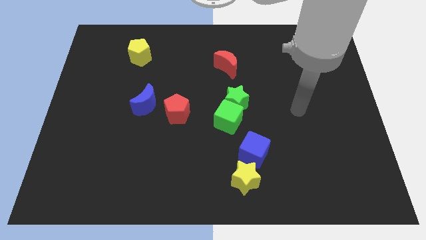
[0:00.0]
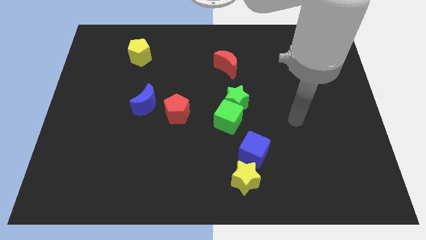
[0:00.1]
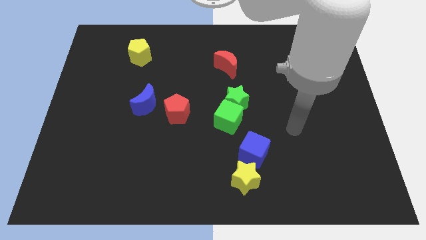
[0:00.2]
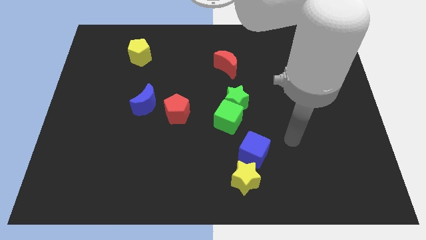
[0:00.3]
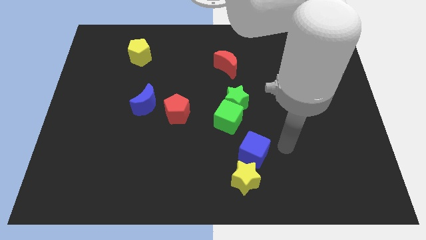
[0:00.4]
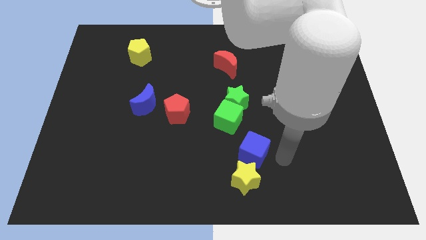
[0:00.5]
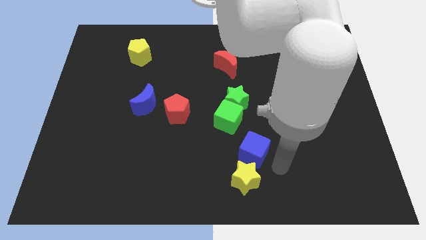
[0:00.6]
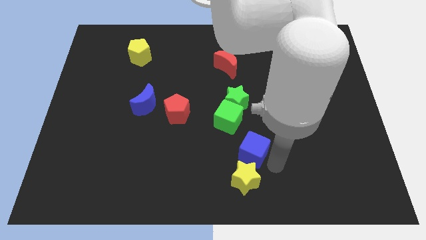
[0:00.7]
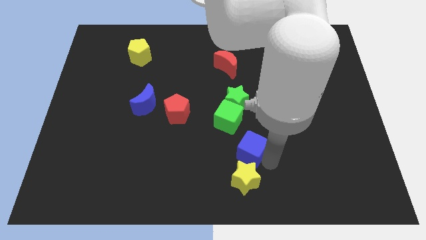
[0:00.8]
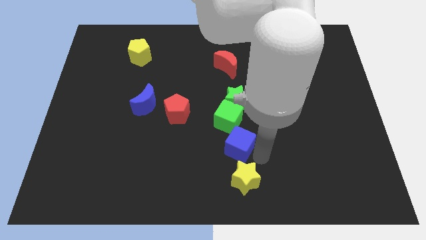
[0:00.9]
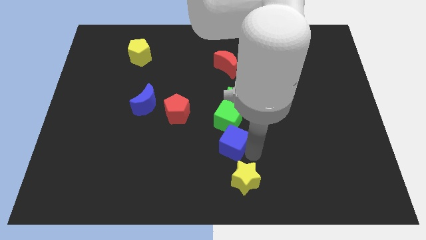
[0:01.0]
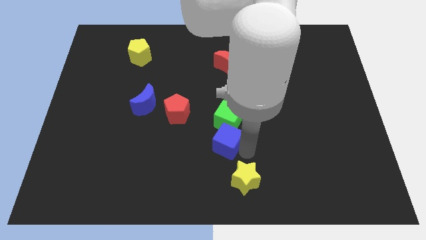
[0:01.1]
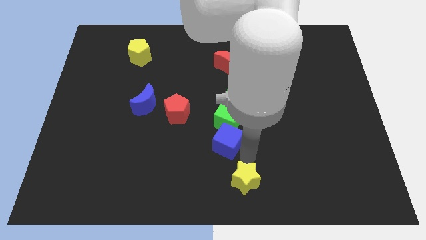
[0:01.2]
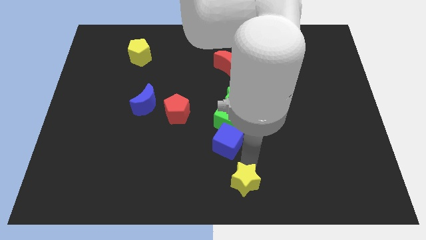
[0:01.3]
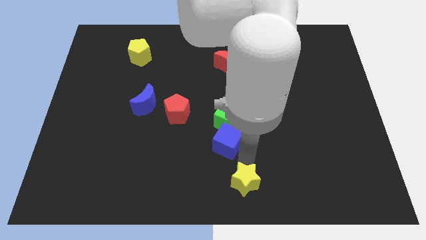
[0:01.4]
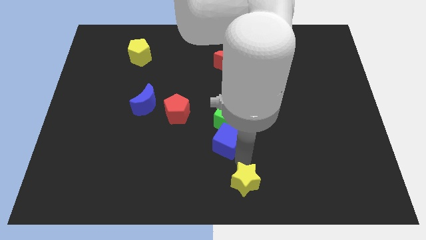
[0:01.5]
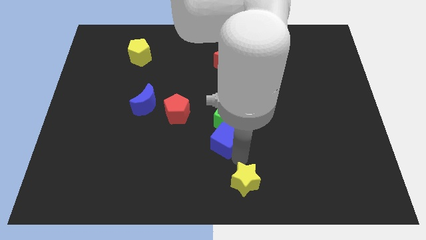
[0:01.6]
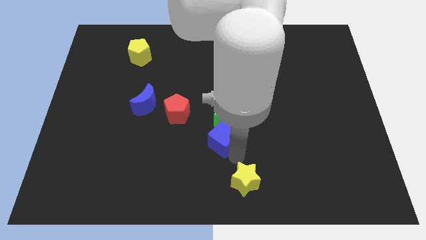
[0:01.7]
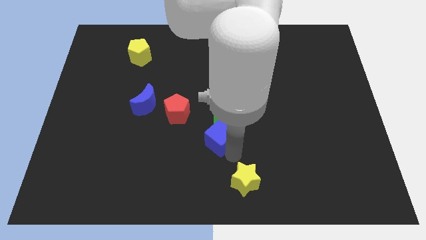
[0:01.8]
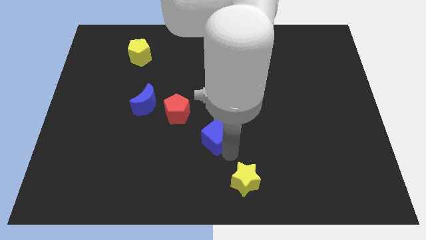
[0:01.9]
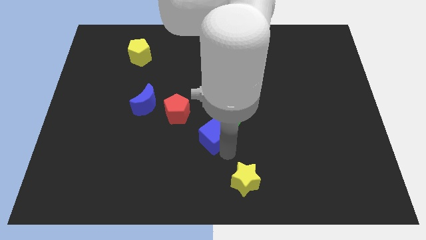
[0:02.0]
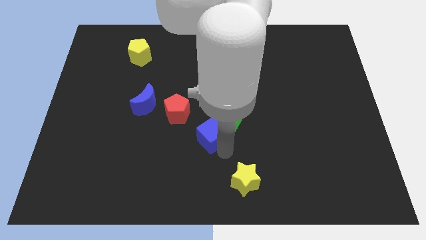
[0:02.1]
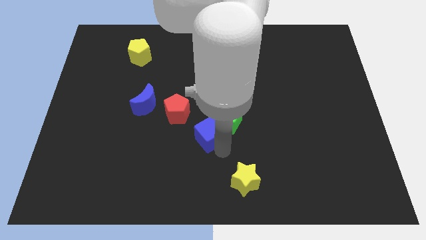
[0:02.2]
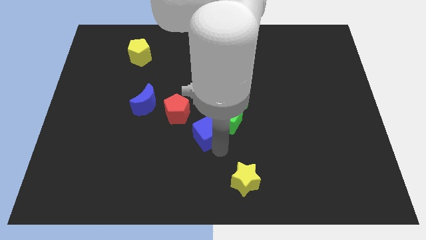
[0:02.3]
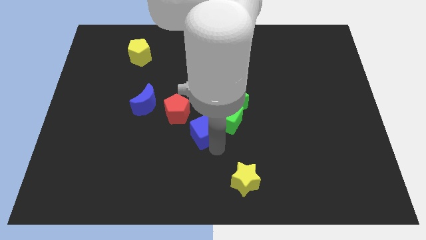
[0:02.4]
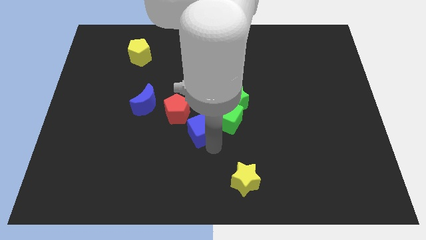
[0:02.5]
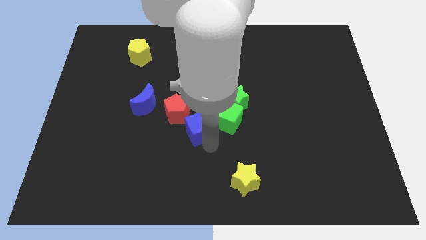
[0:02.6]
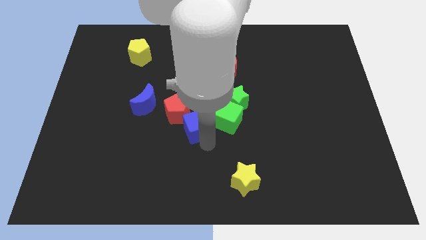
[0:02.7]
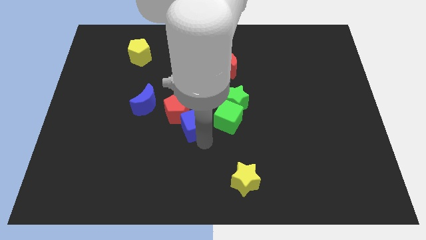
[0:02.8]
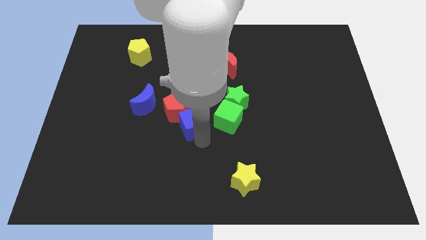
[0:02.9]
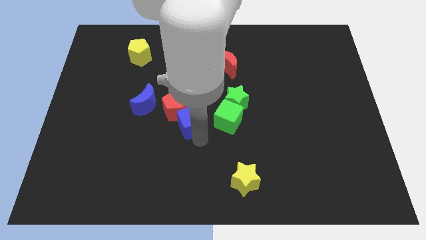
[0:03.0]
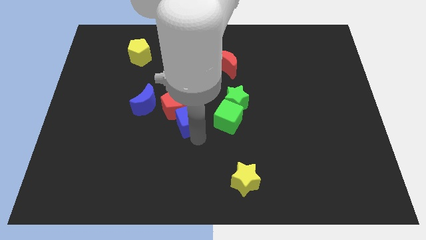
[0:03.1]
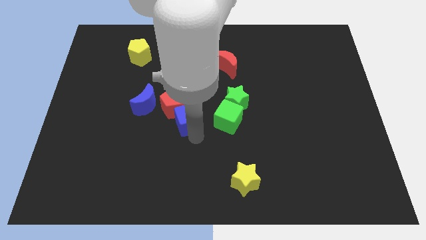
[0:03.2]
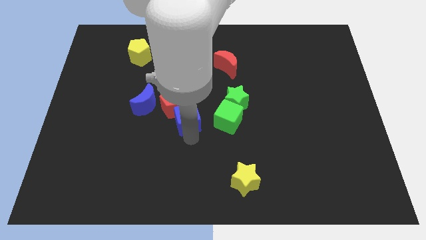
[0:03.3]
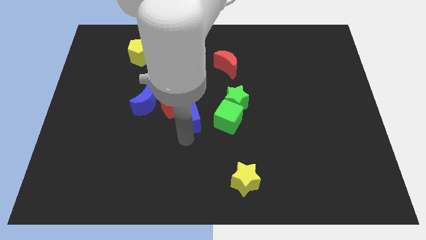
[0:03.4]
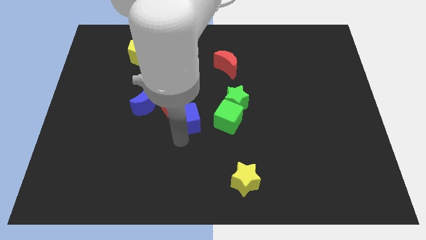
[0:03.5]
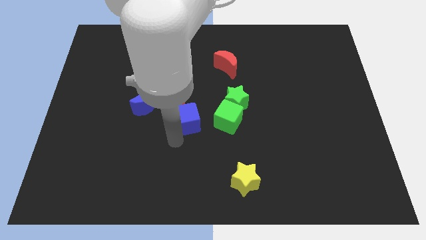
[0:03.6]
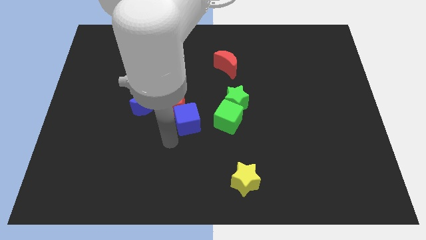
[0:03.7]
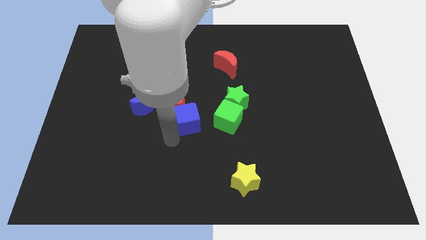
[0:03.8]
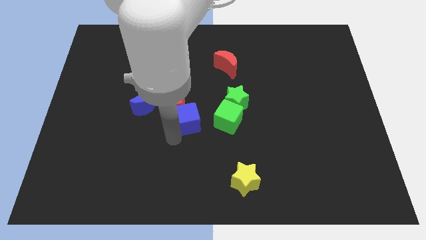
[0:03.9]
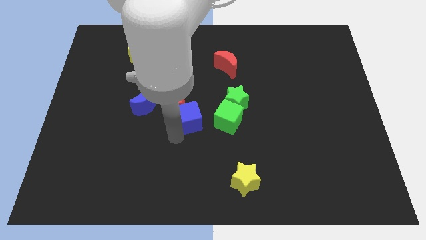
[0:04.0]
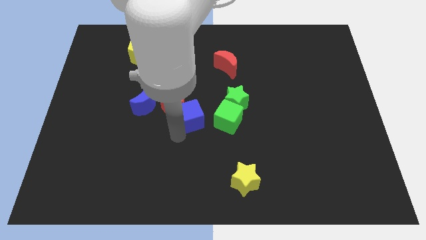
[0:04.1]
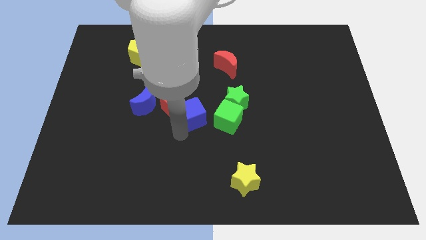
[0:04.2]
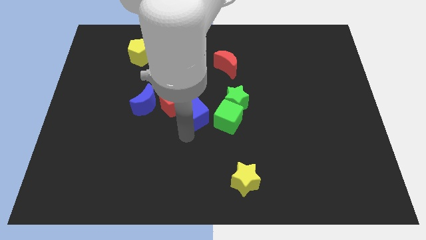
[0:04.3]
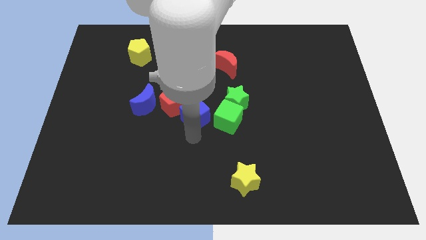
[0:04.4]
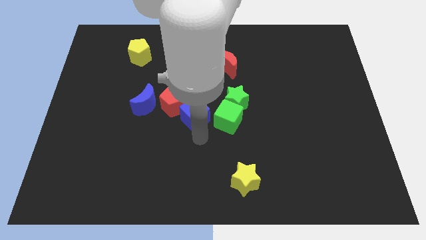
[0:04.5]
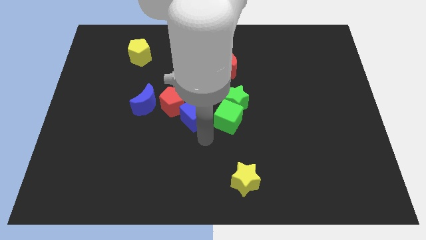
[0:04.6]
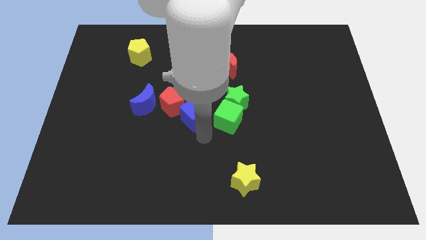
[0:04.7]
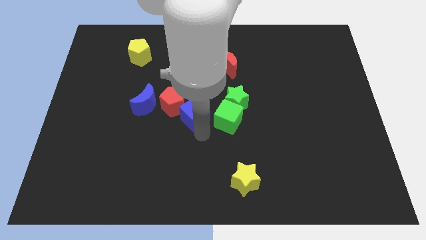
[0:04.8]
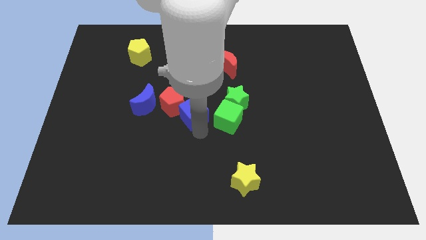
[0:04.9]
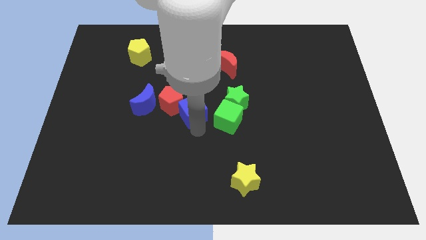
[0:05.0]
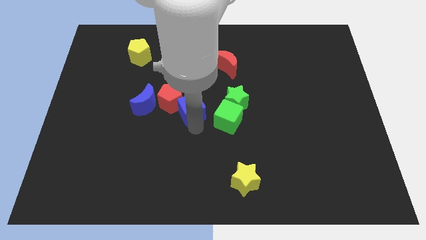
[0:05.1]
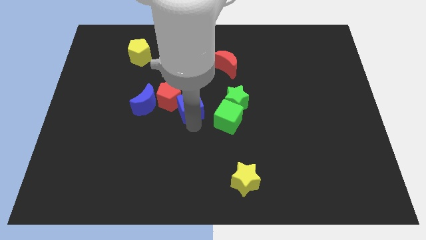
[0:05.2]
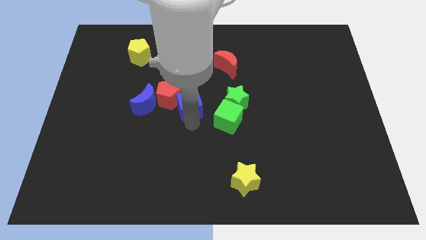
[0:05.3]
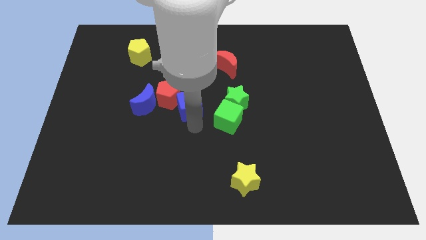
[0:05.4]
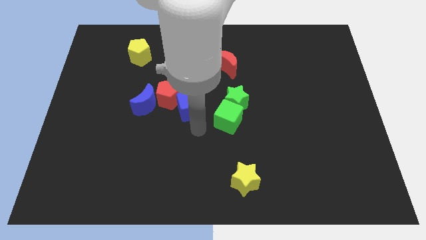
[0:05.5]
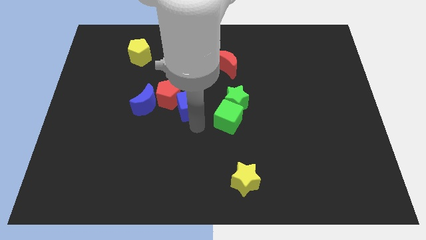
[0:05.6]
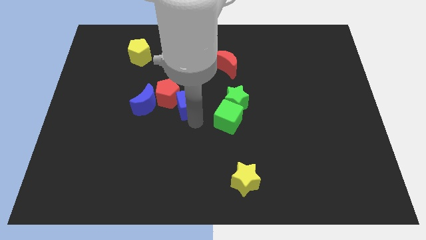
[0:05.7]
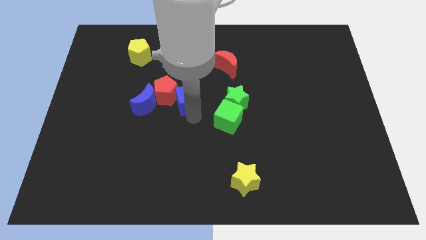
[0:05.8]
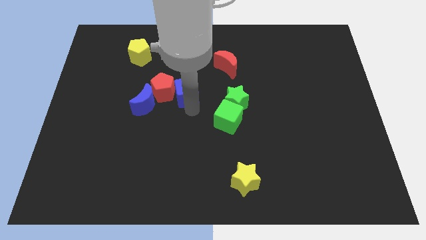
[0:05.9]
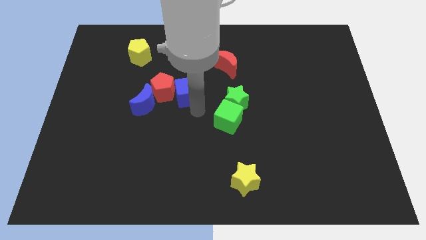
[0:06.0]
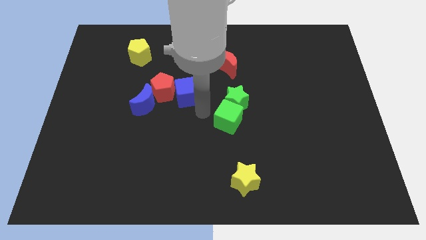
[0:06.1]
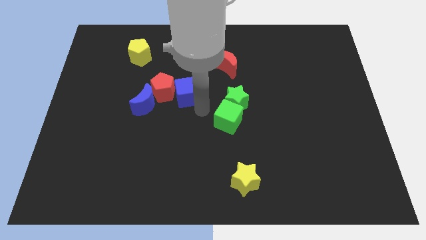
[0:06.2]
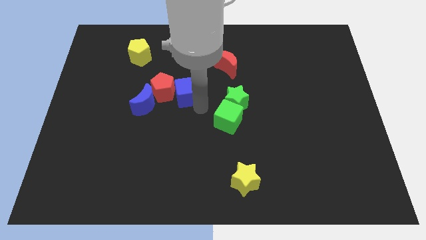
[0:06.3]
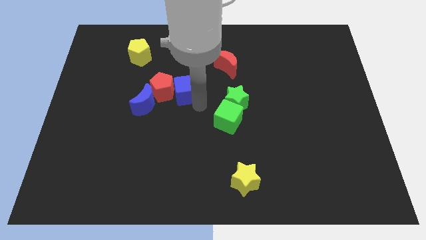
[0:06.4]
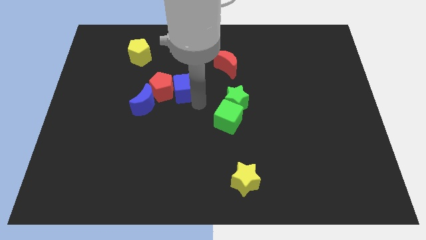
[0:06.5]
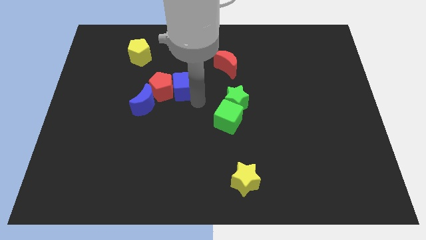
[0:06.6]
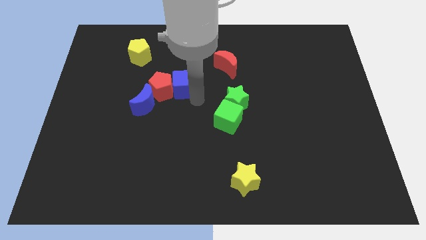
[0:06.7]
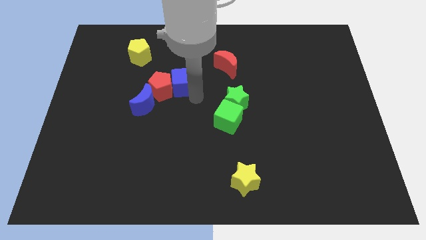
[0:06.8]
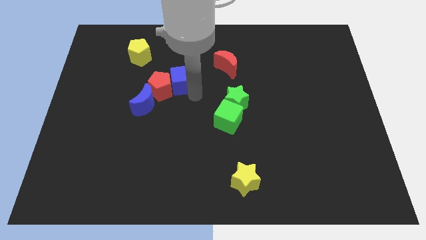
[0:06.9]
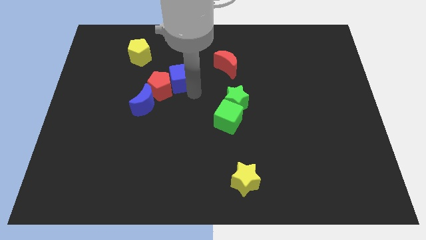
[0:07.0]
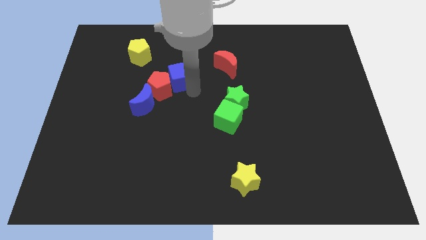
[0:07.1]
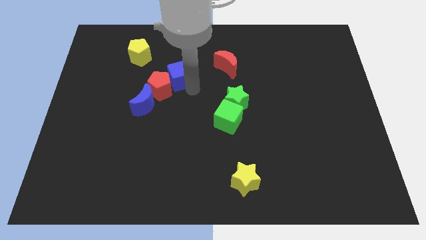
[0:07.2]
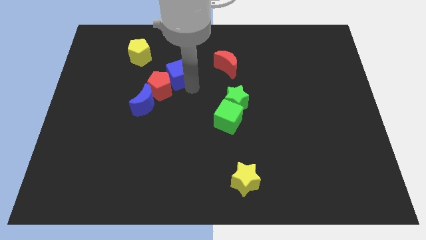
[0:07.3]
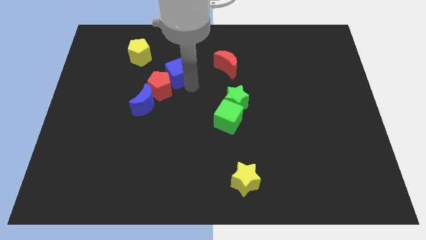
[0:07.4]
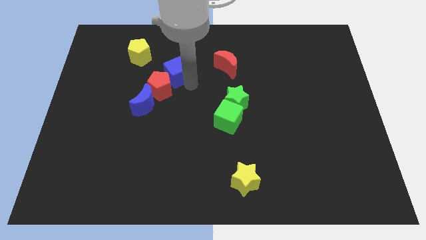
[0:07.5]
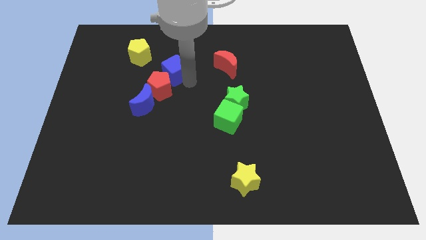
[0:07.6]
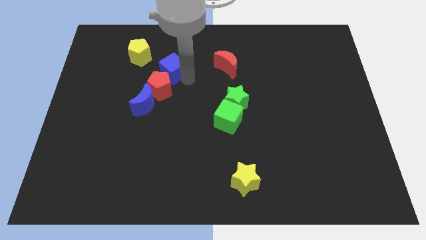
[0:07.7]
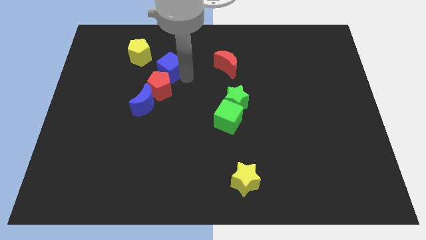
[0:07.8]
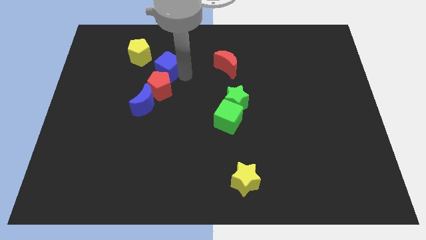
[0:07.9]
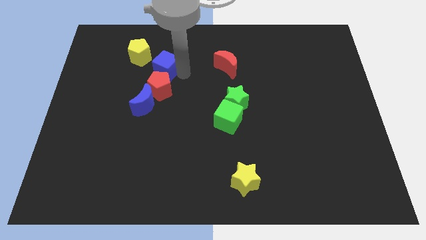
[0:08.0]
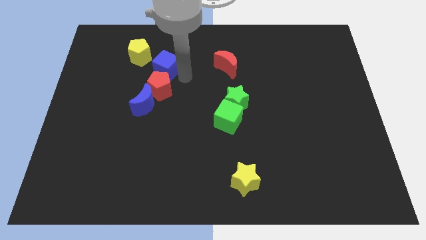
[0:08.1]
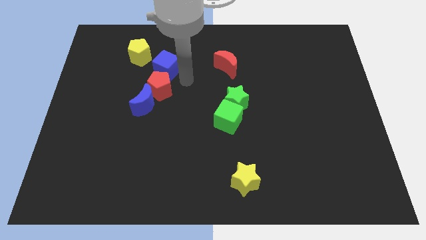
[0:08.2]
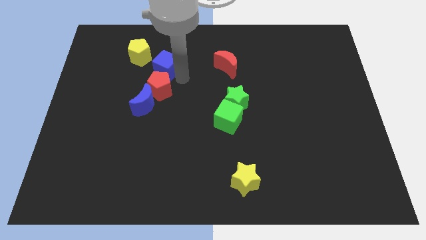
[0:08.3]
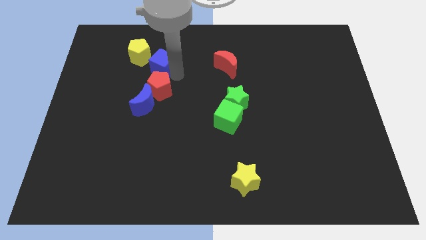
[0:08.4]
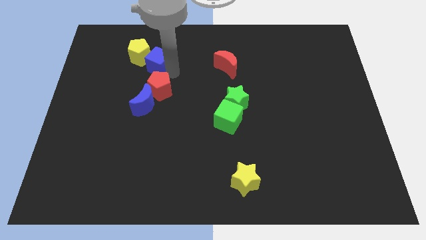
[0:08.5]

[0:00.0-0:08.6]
move the blue cube next to the yellow pentagon
